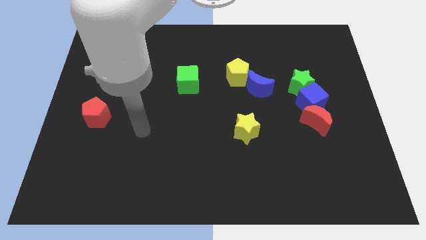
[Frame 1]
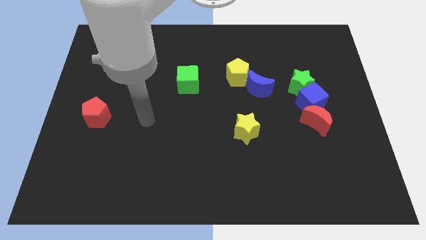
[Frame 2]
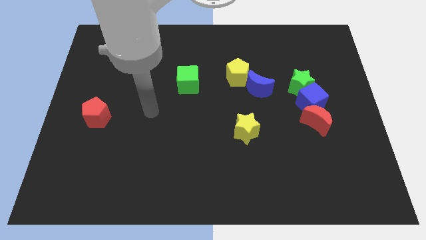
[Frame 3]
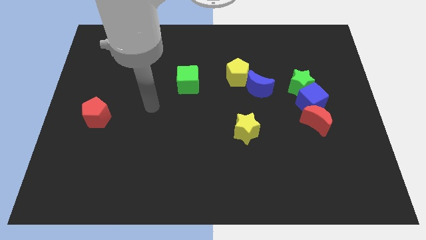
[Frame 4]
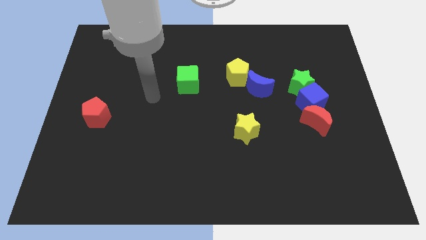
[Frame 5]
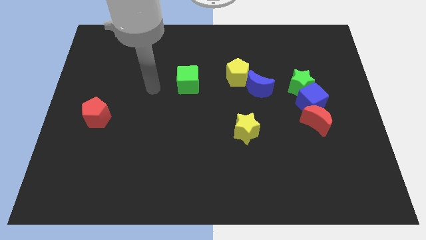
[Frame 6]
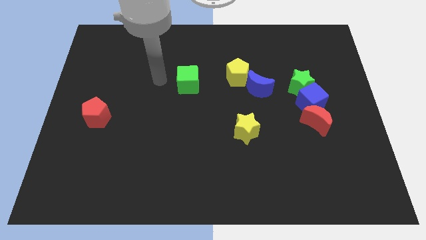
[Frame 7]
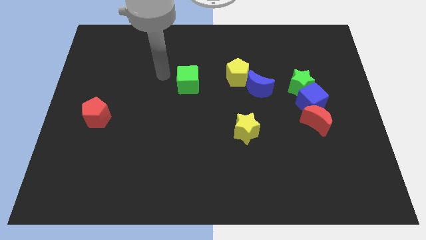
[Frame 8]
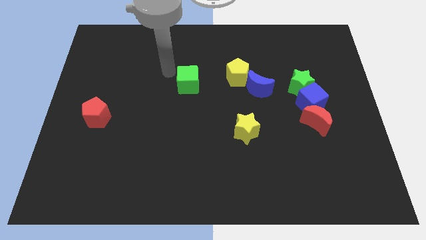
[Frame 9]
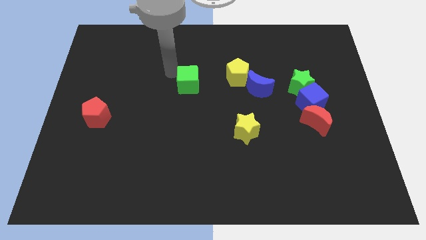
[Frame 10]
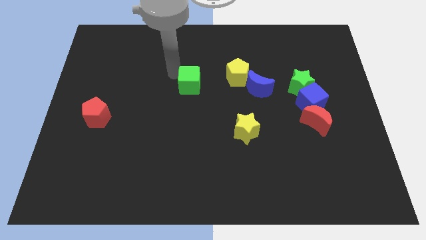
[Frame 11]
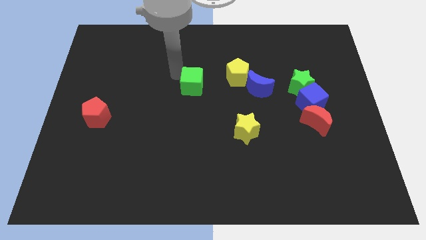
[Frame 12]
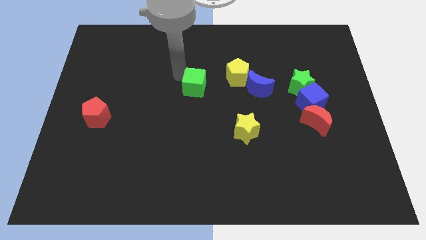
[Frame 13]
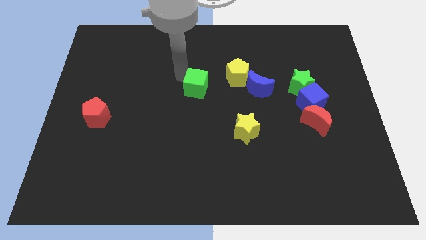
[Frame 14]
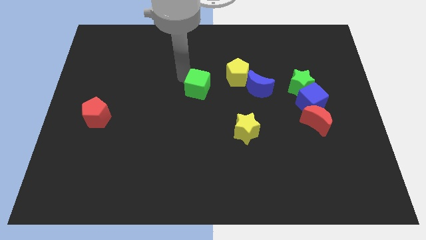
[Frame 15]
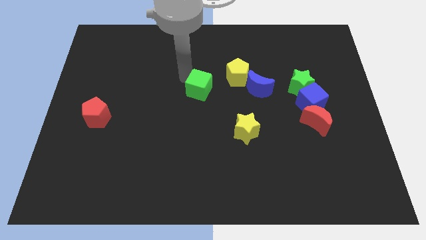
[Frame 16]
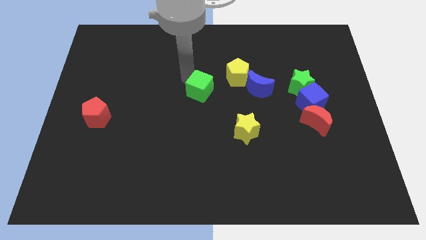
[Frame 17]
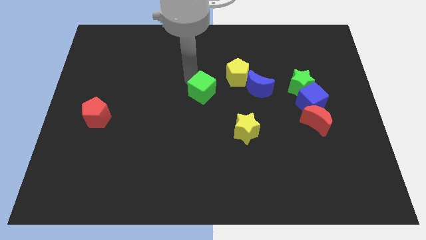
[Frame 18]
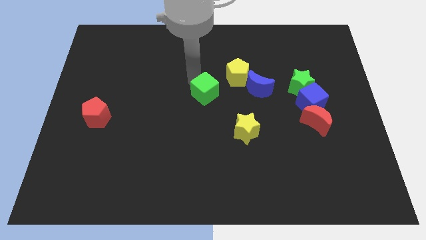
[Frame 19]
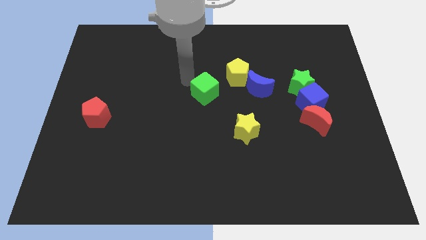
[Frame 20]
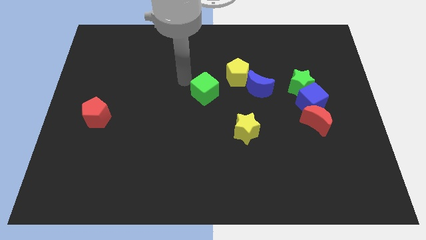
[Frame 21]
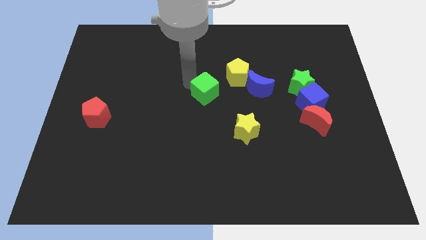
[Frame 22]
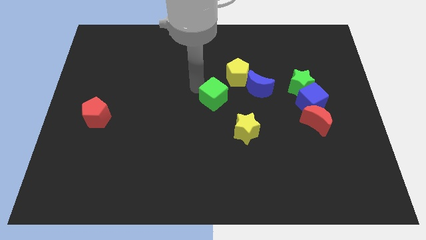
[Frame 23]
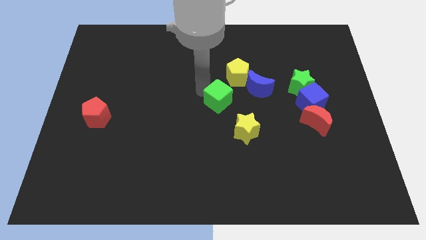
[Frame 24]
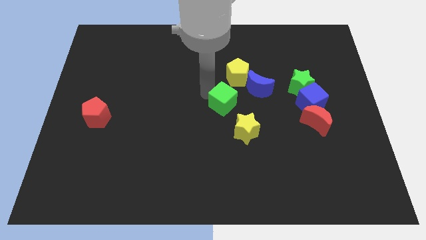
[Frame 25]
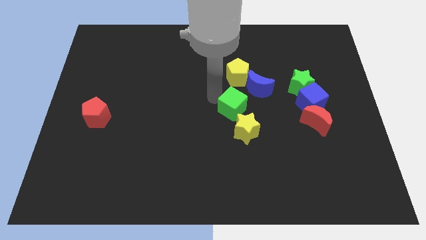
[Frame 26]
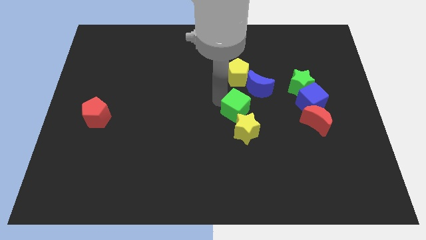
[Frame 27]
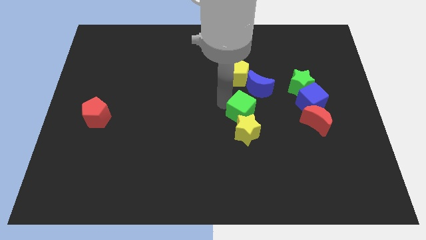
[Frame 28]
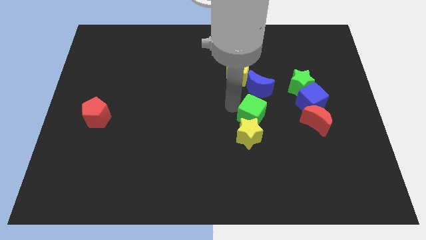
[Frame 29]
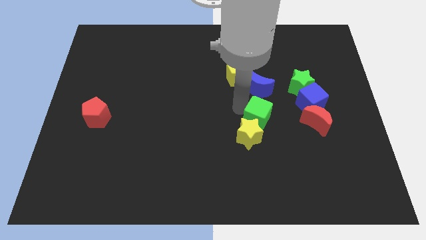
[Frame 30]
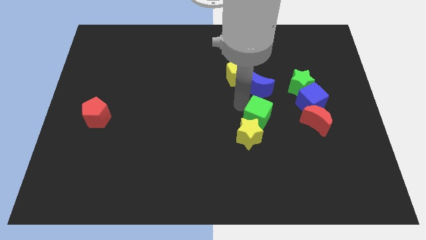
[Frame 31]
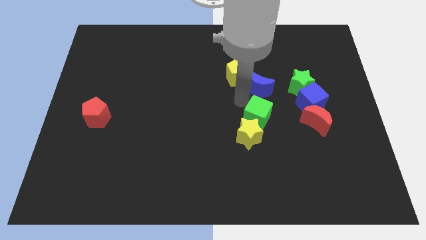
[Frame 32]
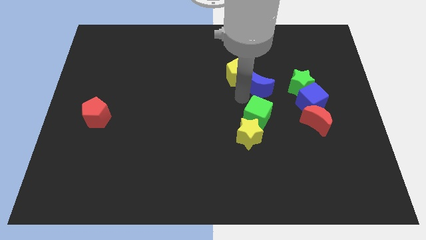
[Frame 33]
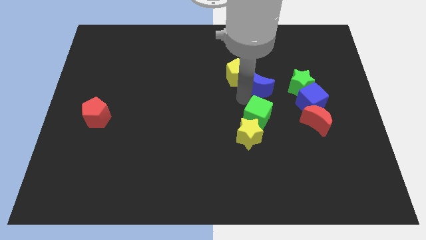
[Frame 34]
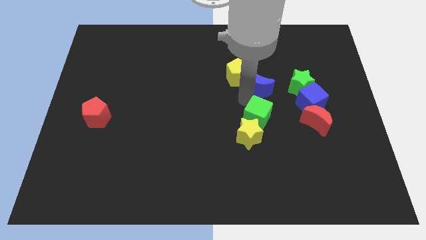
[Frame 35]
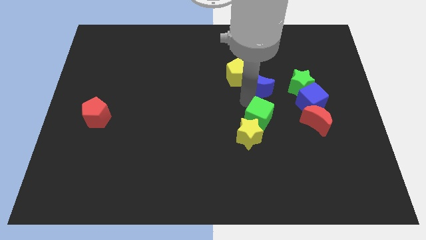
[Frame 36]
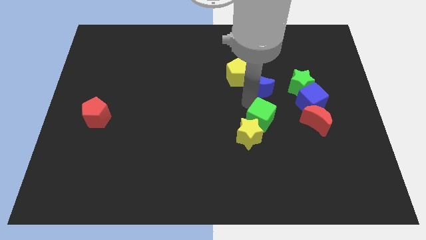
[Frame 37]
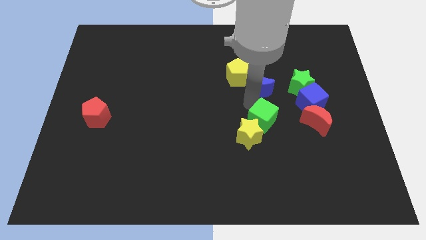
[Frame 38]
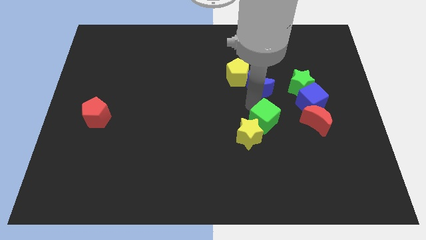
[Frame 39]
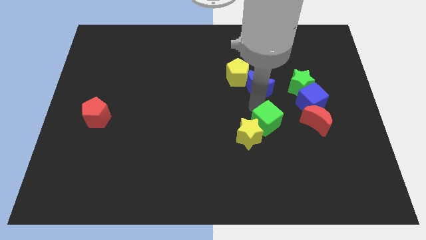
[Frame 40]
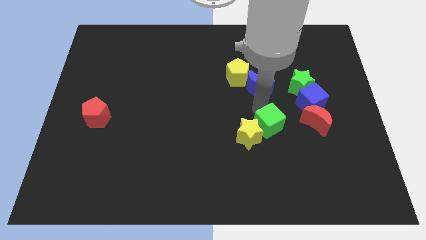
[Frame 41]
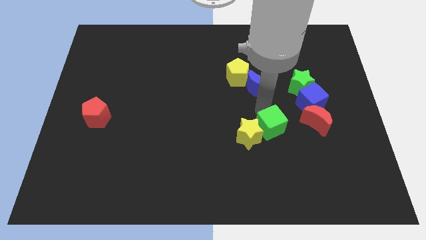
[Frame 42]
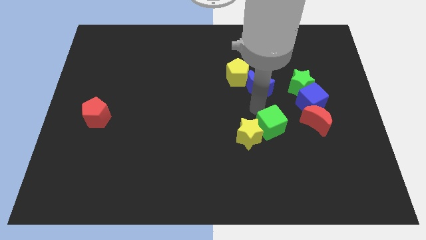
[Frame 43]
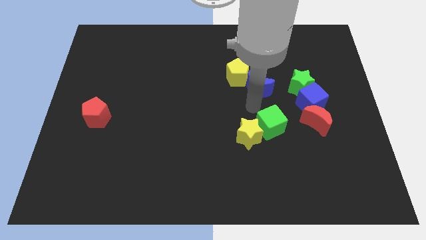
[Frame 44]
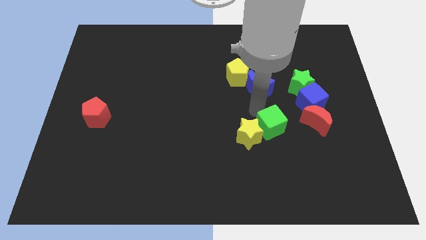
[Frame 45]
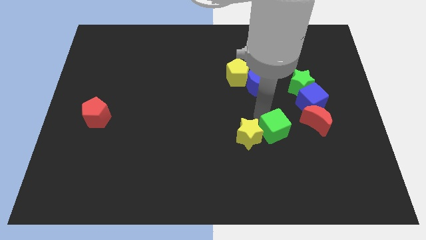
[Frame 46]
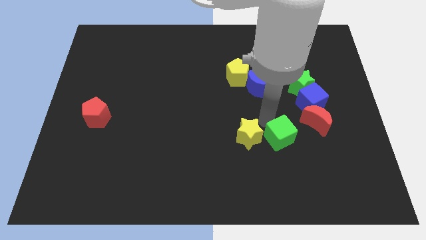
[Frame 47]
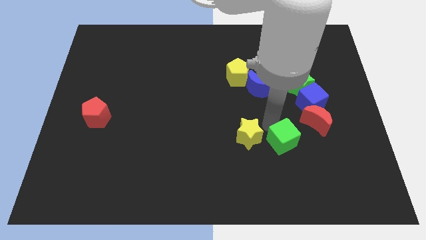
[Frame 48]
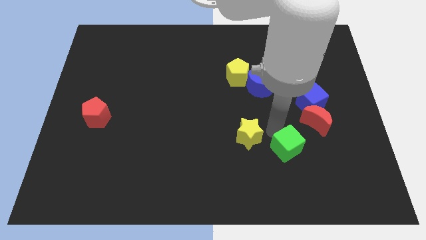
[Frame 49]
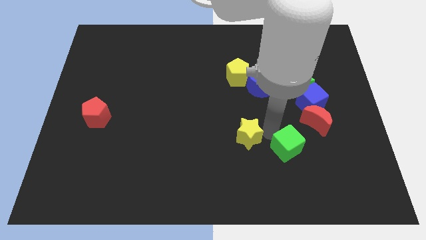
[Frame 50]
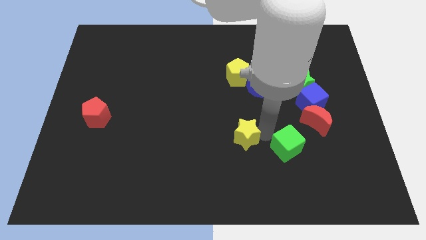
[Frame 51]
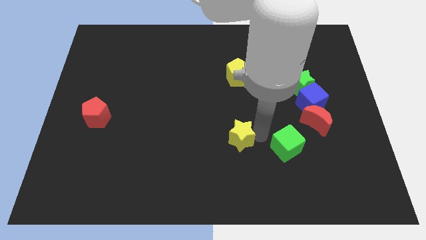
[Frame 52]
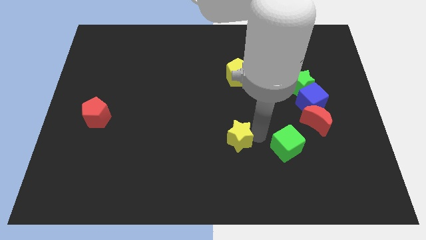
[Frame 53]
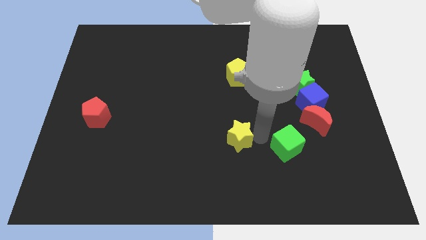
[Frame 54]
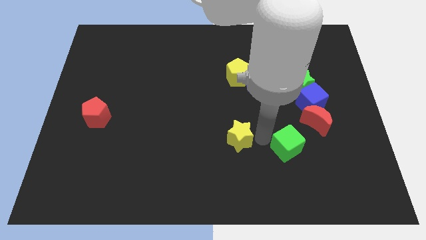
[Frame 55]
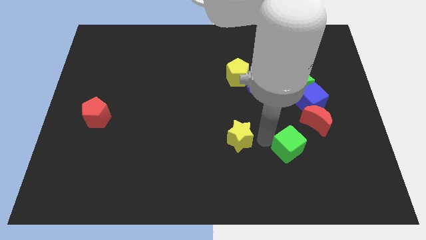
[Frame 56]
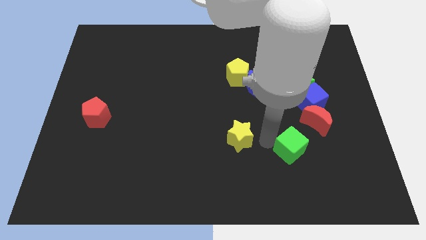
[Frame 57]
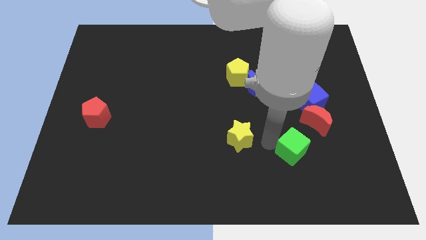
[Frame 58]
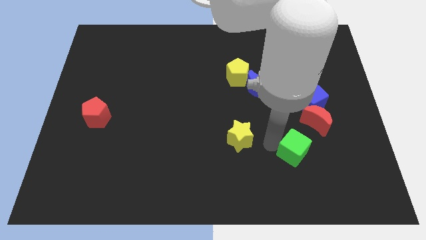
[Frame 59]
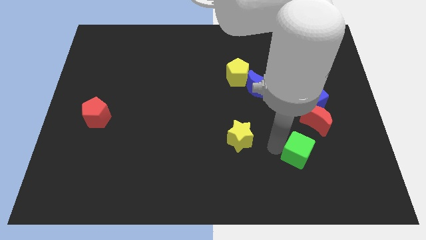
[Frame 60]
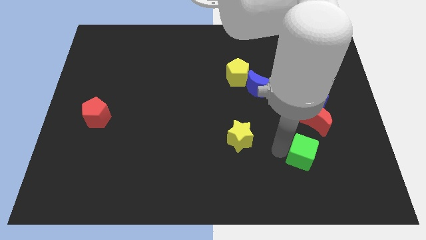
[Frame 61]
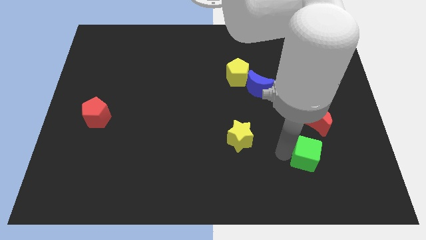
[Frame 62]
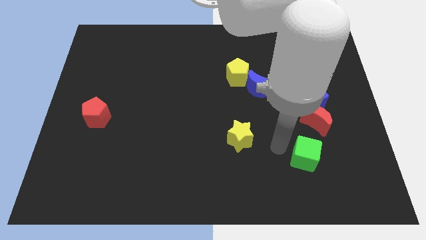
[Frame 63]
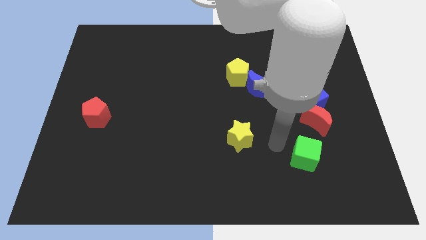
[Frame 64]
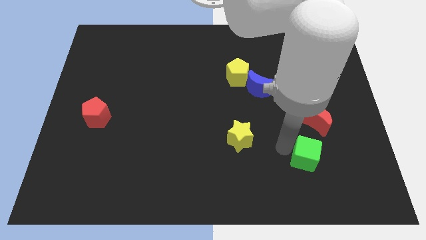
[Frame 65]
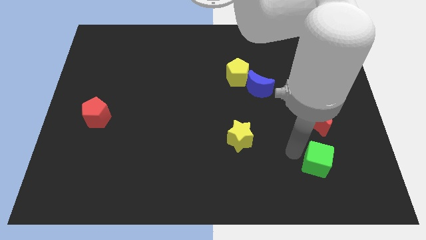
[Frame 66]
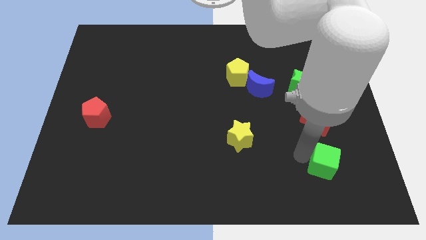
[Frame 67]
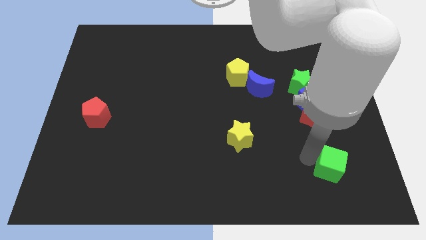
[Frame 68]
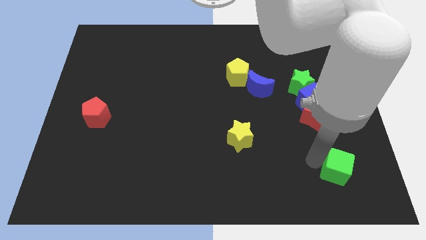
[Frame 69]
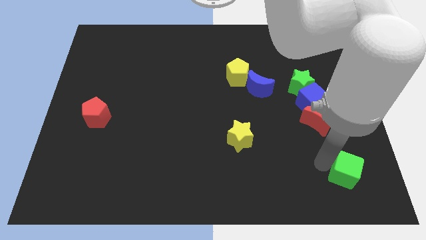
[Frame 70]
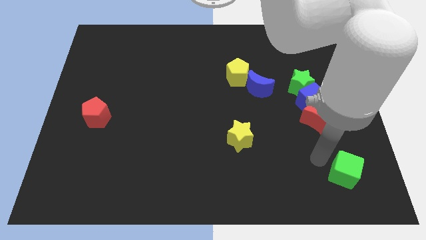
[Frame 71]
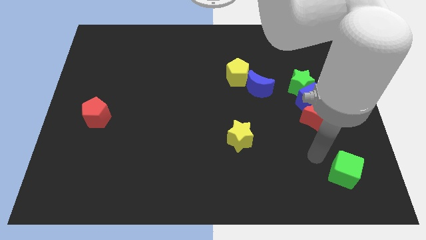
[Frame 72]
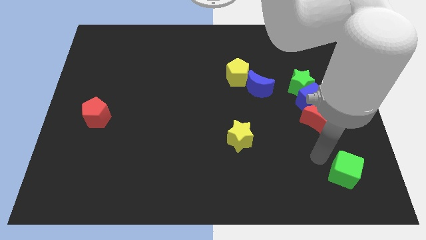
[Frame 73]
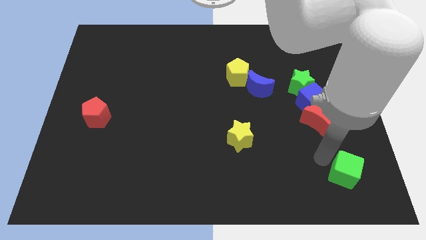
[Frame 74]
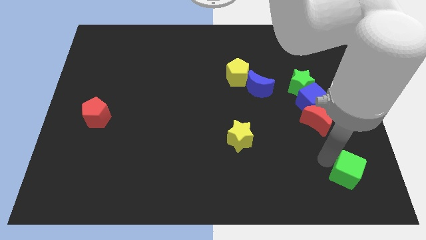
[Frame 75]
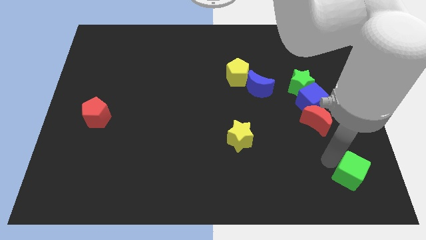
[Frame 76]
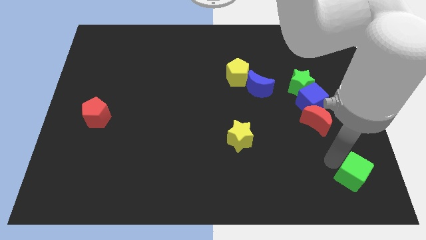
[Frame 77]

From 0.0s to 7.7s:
move the green cube to the bottom right of the board
